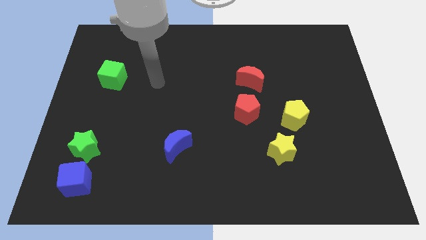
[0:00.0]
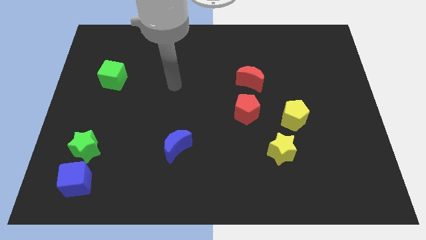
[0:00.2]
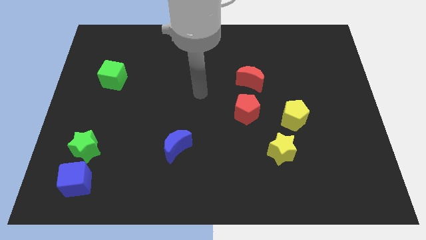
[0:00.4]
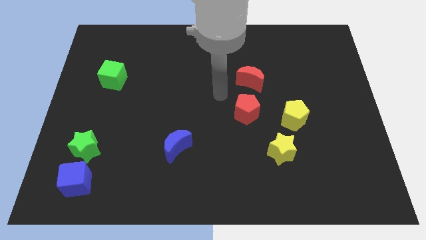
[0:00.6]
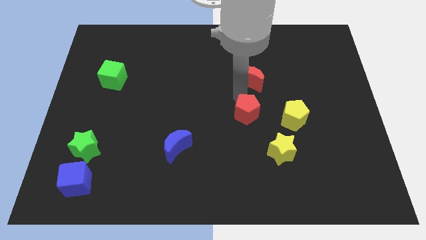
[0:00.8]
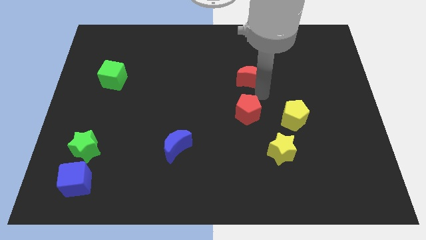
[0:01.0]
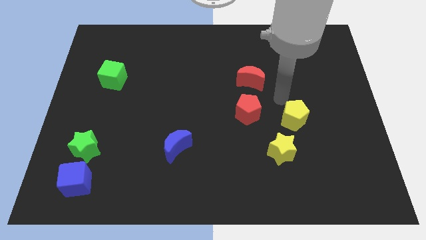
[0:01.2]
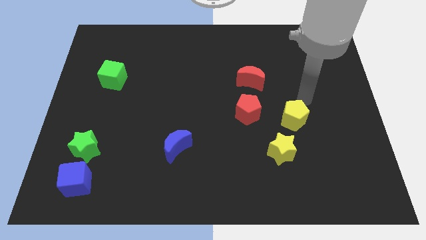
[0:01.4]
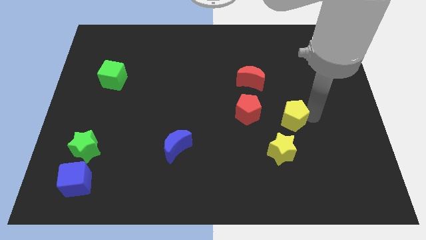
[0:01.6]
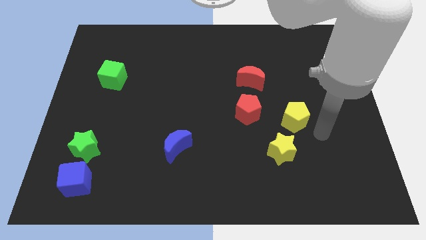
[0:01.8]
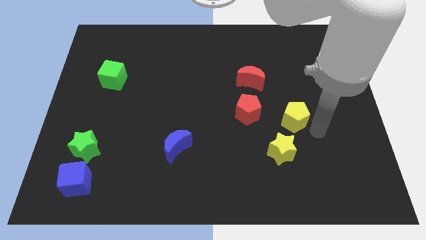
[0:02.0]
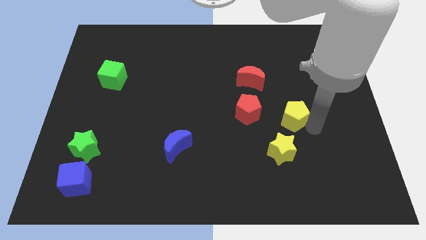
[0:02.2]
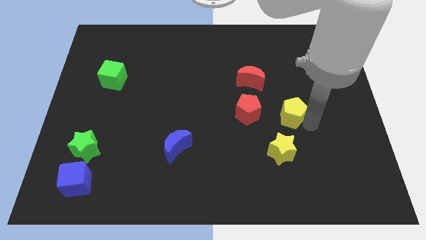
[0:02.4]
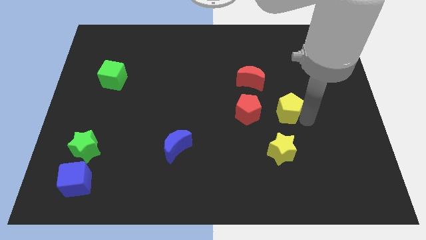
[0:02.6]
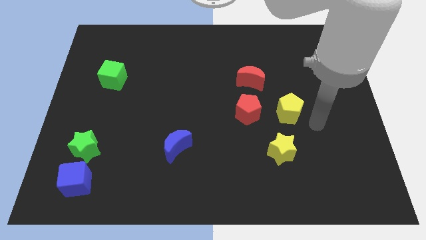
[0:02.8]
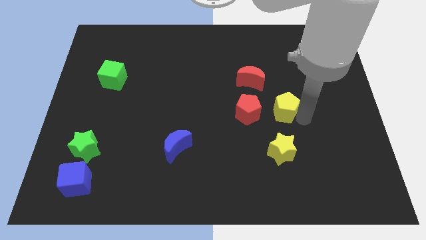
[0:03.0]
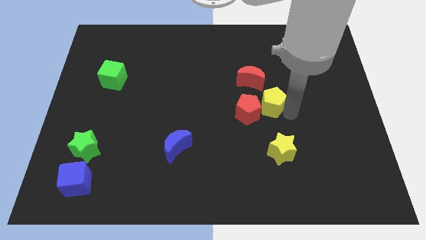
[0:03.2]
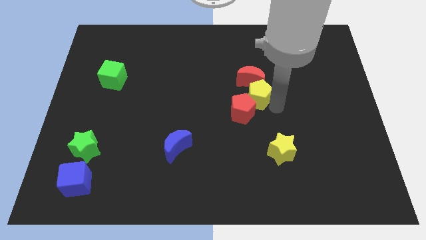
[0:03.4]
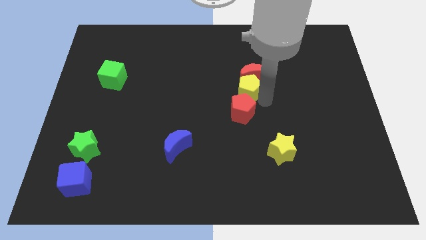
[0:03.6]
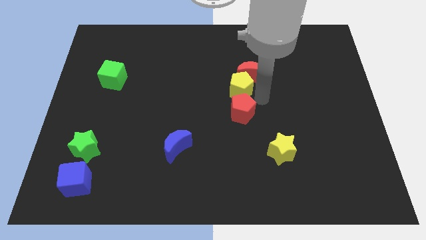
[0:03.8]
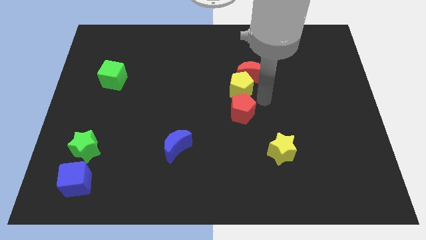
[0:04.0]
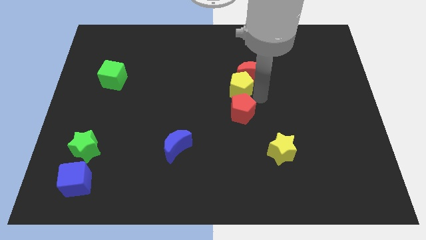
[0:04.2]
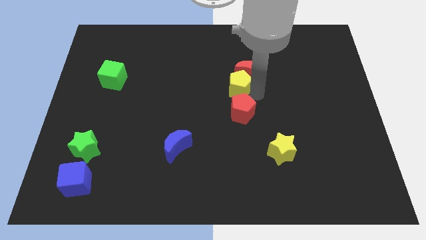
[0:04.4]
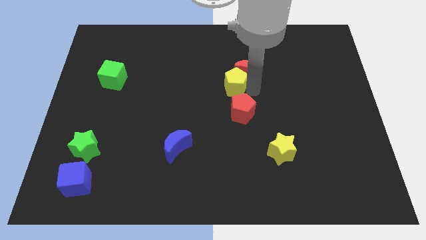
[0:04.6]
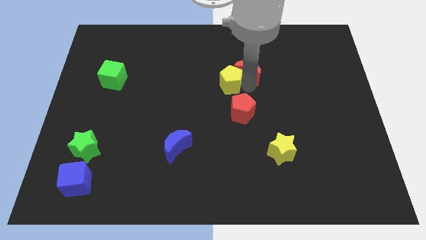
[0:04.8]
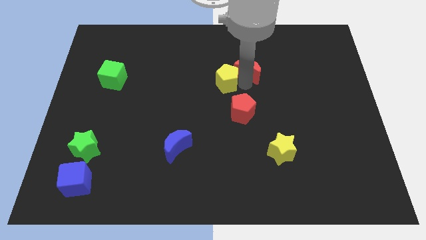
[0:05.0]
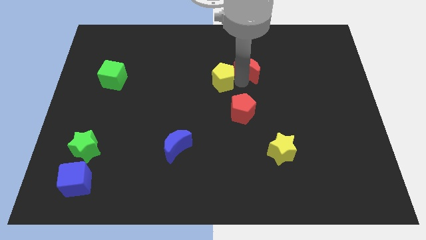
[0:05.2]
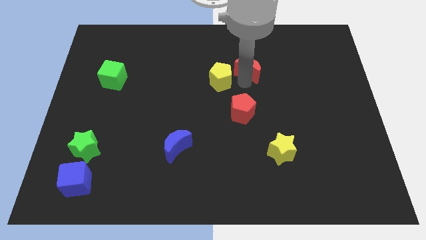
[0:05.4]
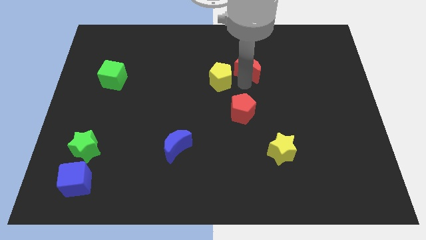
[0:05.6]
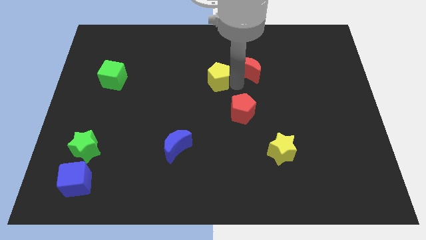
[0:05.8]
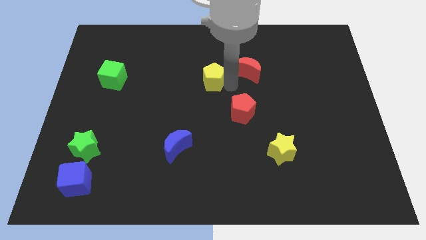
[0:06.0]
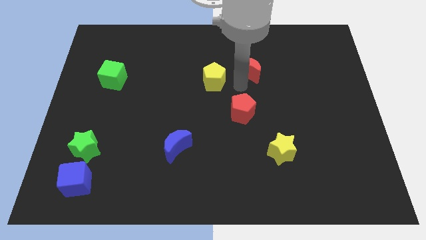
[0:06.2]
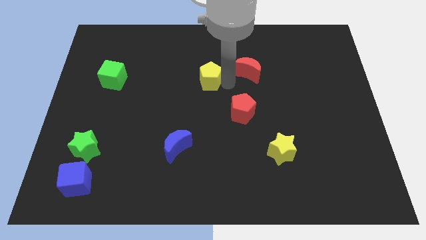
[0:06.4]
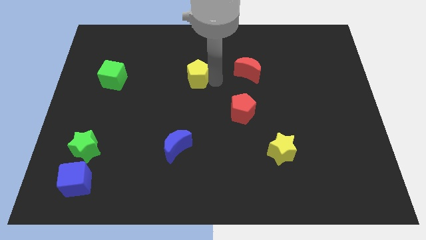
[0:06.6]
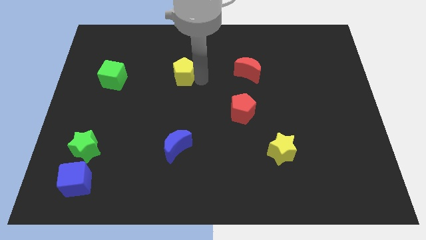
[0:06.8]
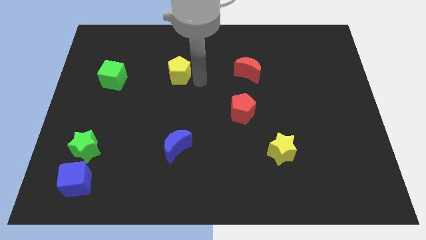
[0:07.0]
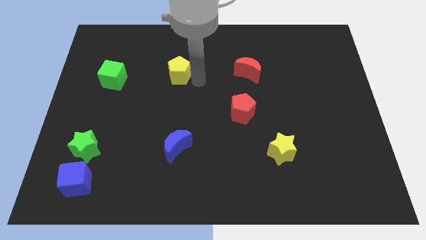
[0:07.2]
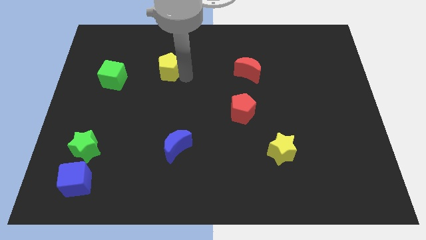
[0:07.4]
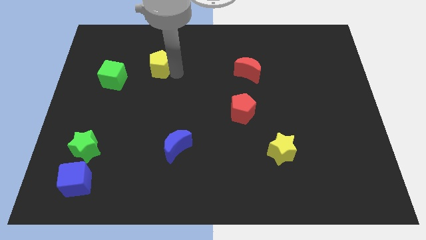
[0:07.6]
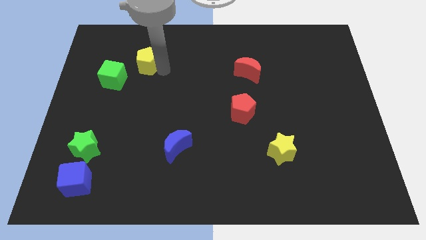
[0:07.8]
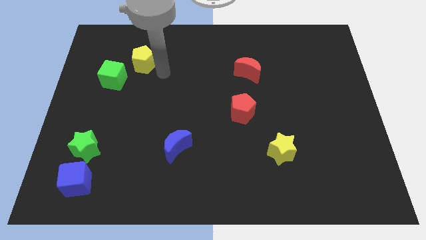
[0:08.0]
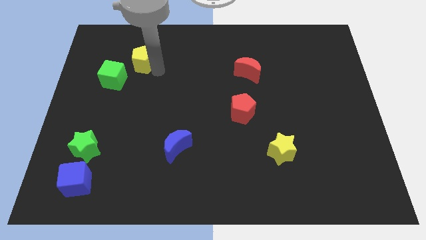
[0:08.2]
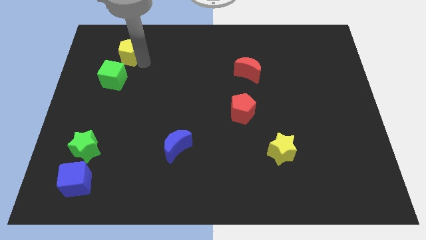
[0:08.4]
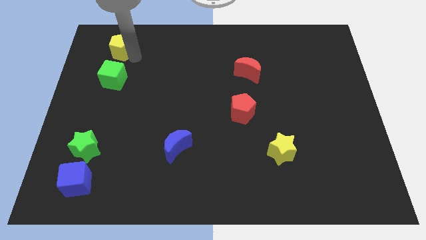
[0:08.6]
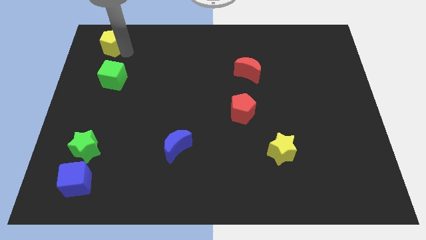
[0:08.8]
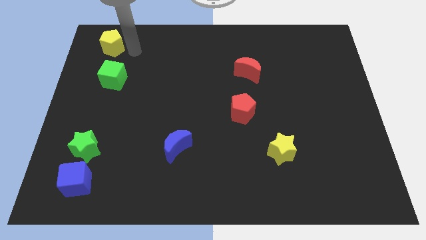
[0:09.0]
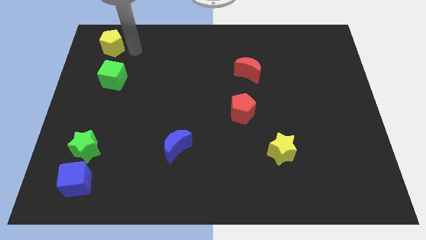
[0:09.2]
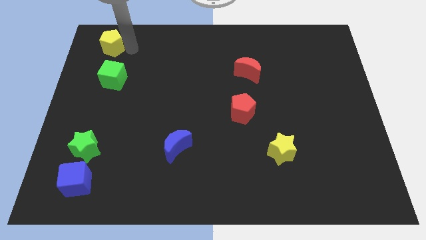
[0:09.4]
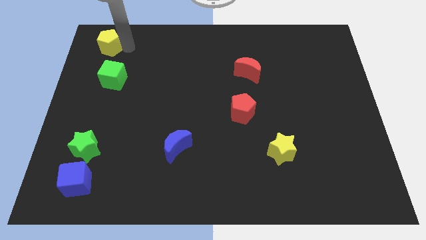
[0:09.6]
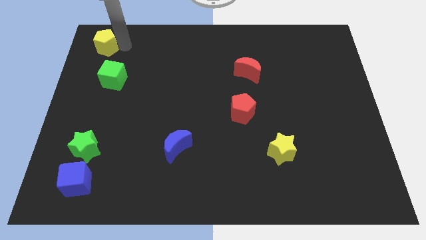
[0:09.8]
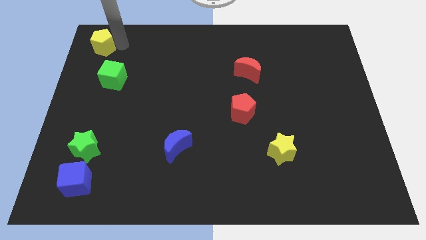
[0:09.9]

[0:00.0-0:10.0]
put the yellow pentagon to the top left of the board

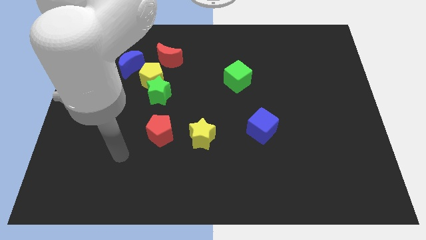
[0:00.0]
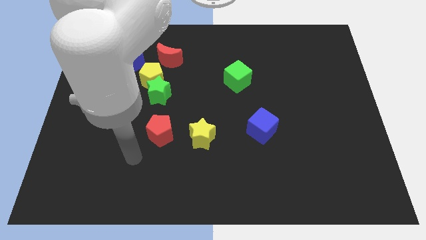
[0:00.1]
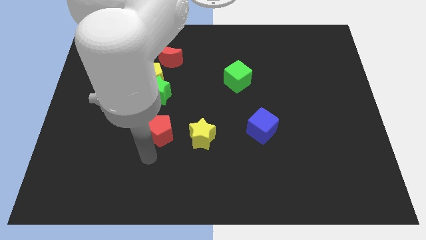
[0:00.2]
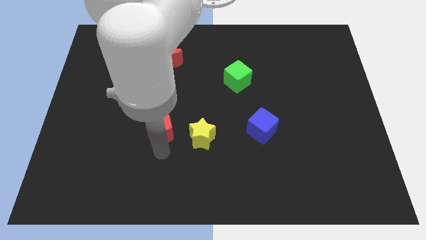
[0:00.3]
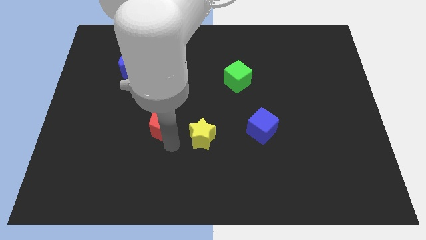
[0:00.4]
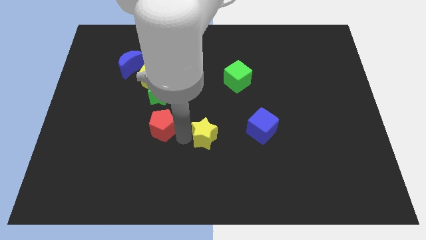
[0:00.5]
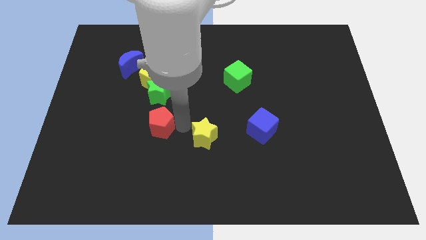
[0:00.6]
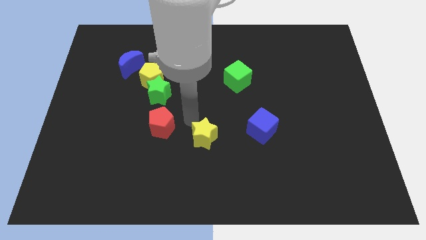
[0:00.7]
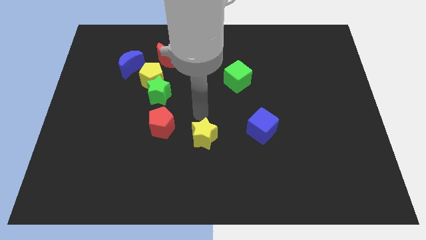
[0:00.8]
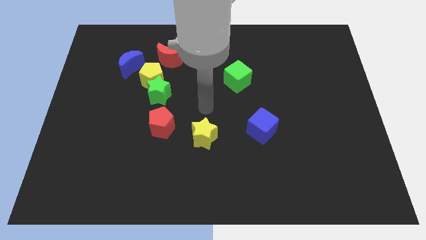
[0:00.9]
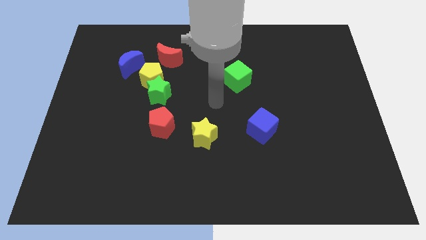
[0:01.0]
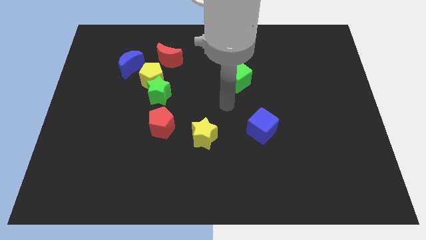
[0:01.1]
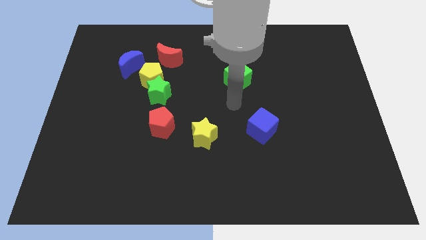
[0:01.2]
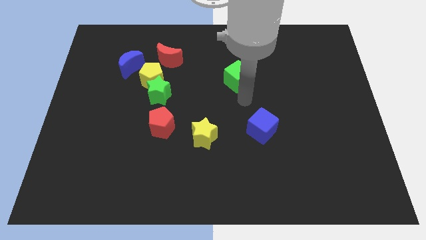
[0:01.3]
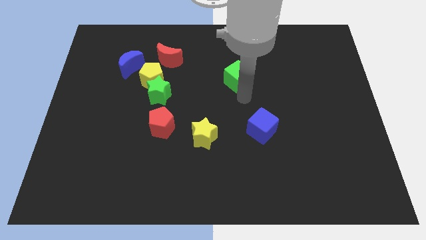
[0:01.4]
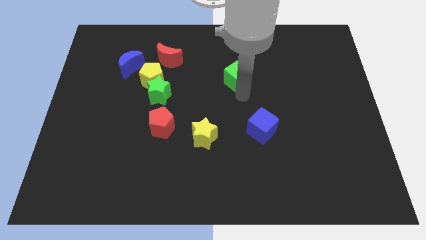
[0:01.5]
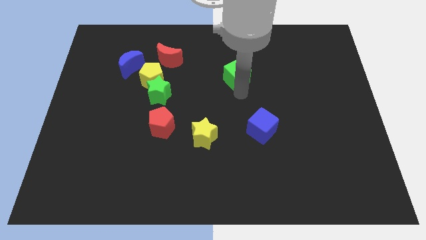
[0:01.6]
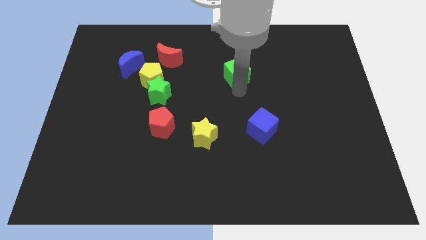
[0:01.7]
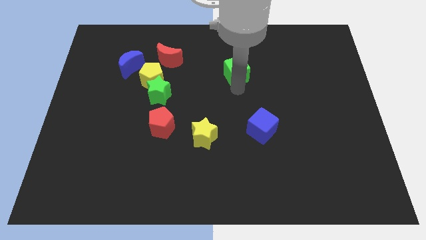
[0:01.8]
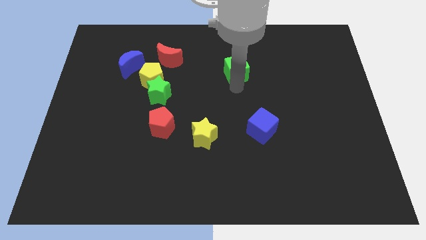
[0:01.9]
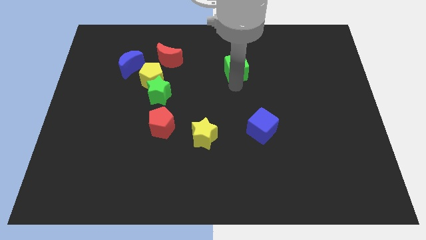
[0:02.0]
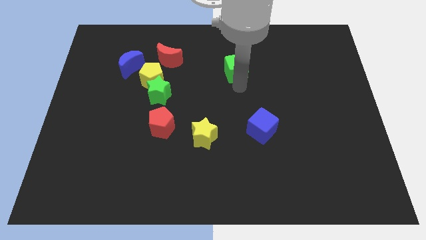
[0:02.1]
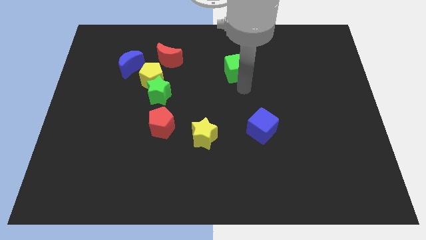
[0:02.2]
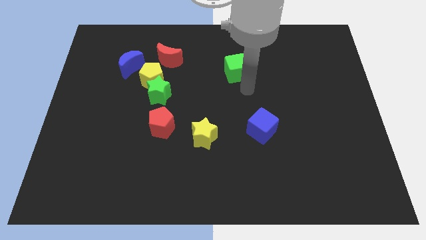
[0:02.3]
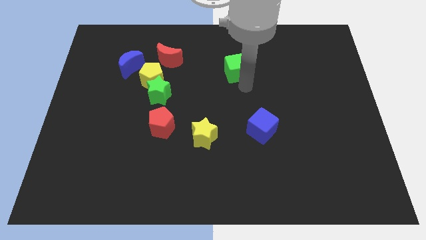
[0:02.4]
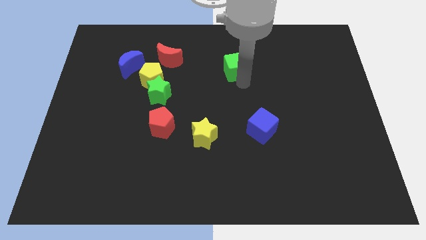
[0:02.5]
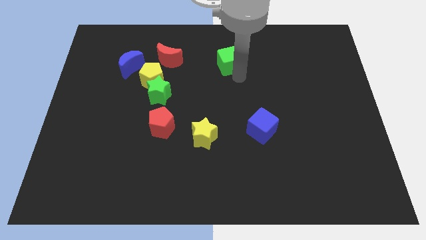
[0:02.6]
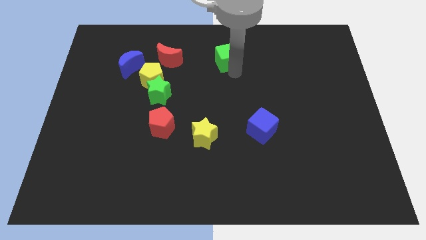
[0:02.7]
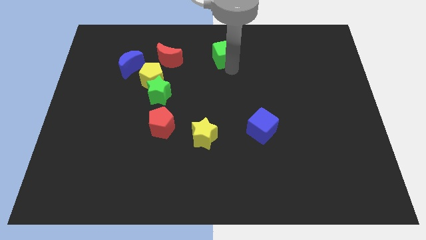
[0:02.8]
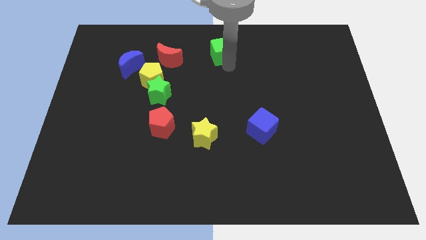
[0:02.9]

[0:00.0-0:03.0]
move the green cube to the top
